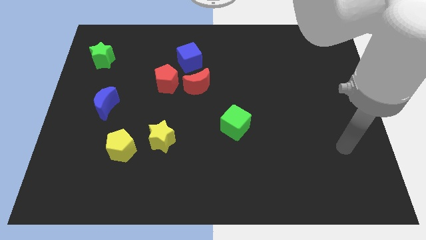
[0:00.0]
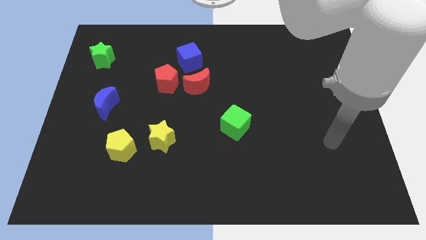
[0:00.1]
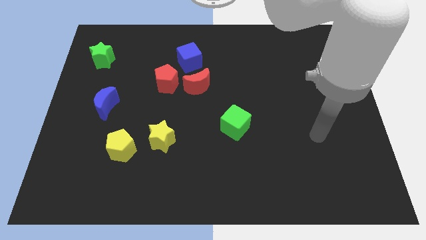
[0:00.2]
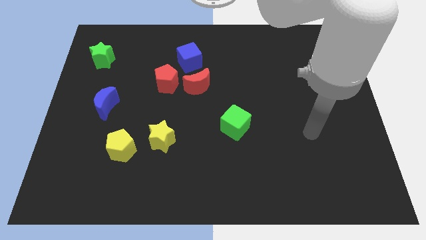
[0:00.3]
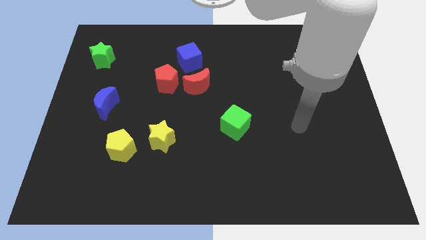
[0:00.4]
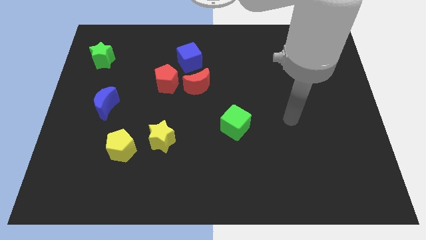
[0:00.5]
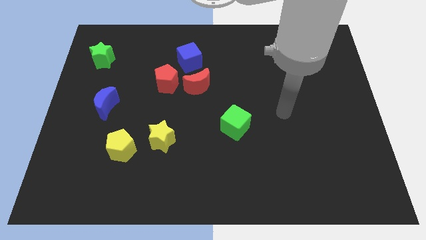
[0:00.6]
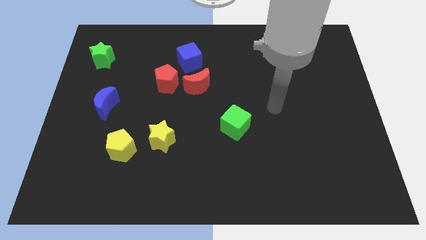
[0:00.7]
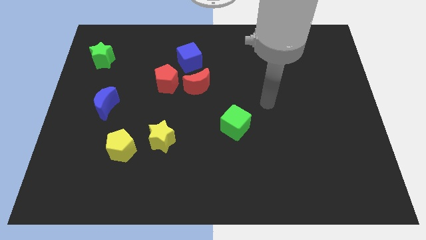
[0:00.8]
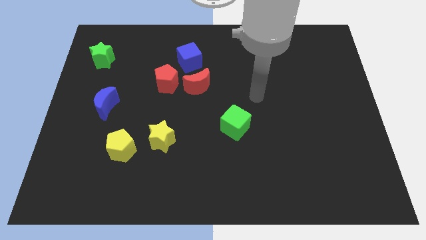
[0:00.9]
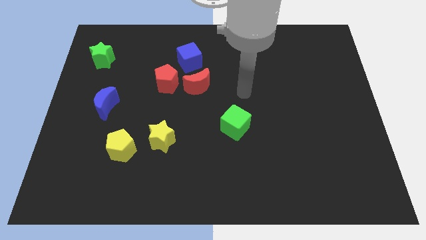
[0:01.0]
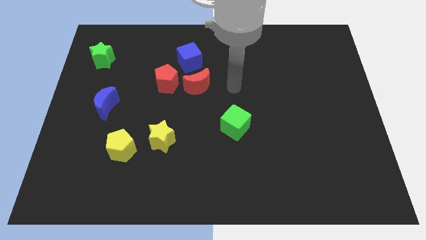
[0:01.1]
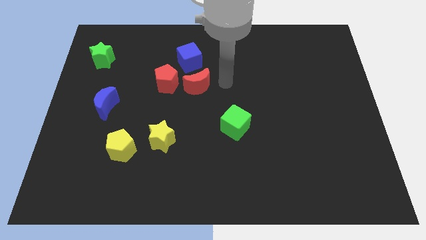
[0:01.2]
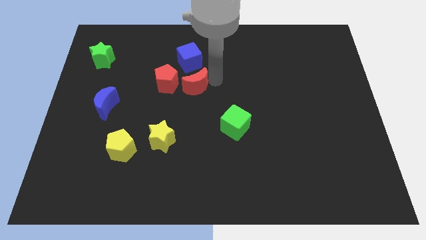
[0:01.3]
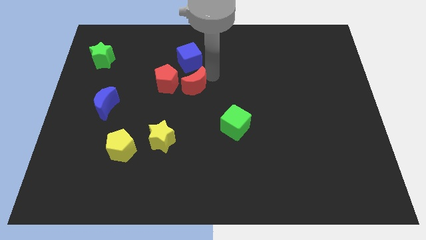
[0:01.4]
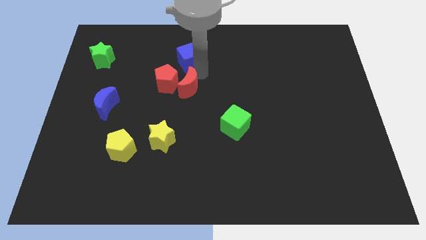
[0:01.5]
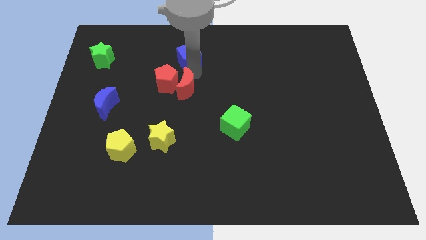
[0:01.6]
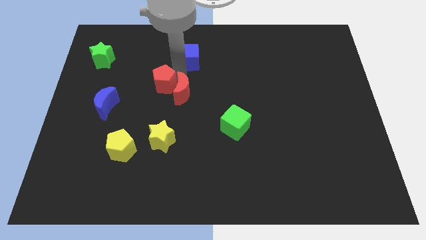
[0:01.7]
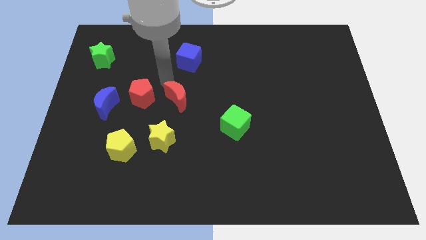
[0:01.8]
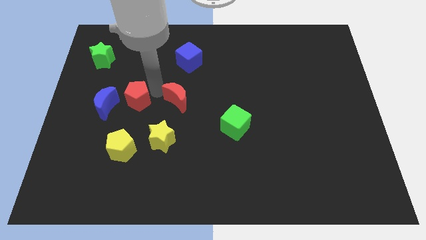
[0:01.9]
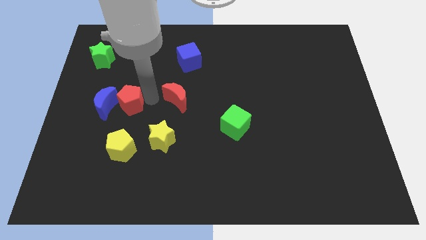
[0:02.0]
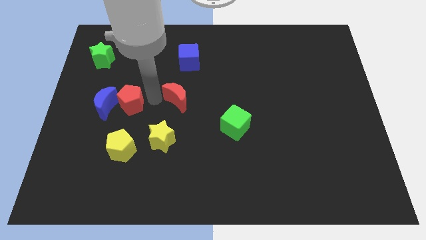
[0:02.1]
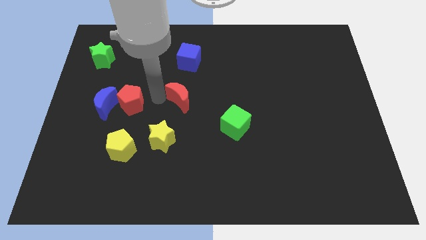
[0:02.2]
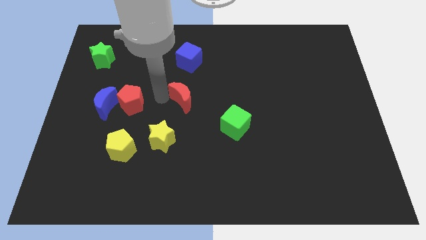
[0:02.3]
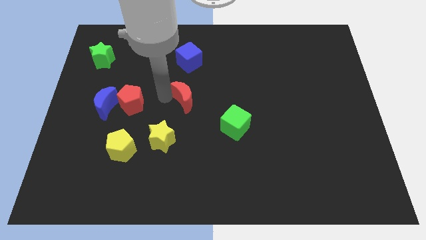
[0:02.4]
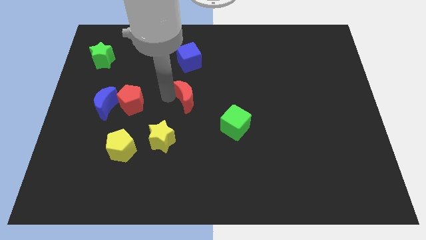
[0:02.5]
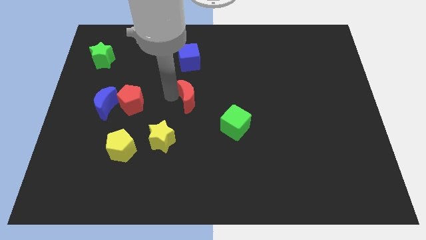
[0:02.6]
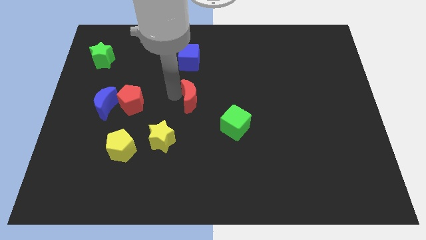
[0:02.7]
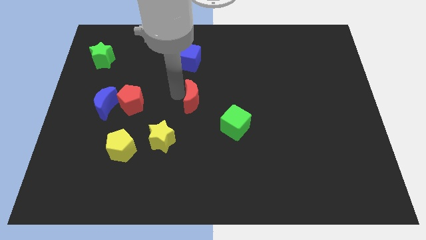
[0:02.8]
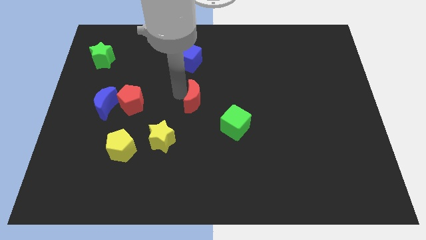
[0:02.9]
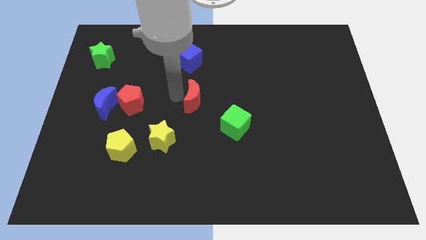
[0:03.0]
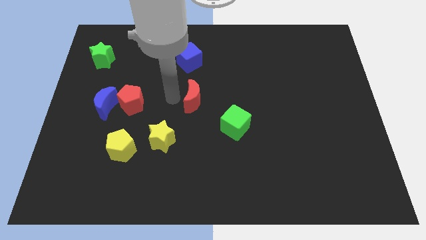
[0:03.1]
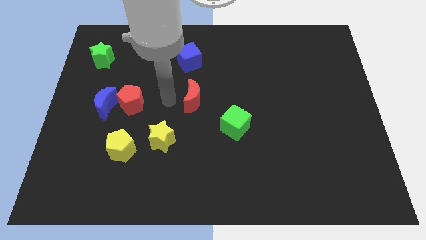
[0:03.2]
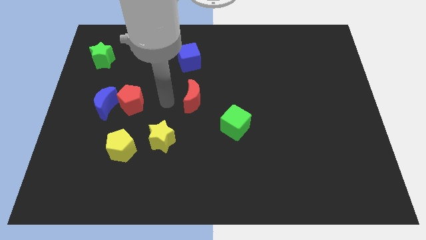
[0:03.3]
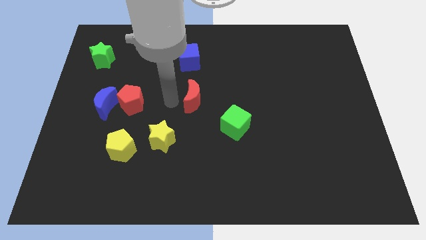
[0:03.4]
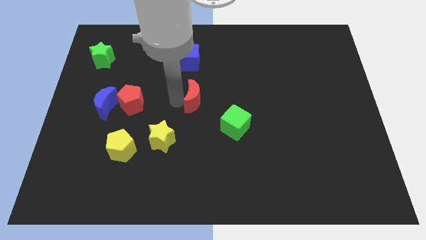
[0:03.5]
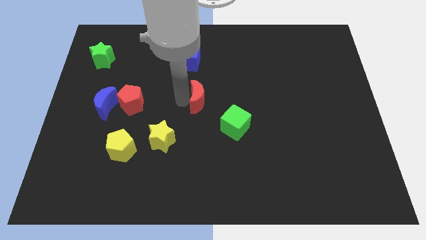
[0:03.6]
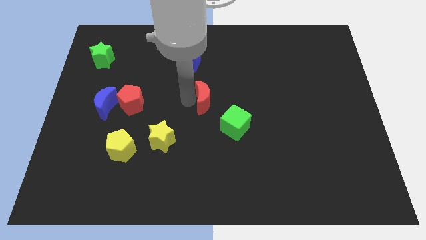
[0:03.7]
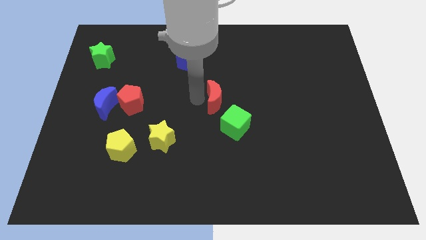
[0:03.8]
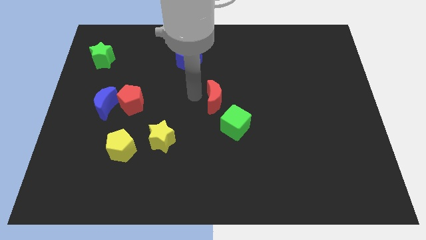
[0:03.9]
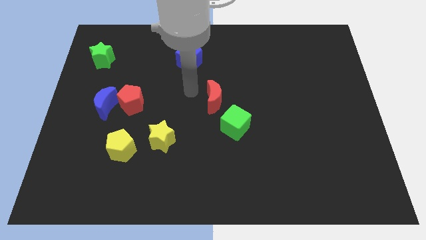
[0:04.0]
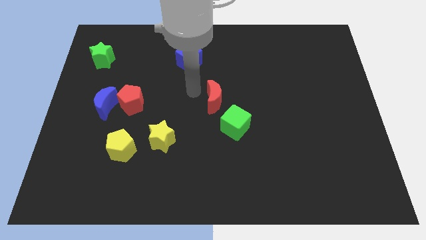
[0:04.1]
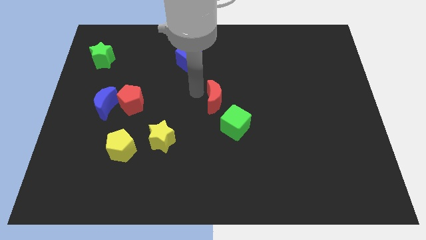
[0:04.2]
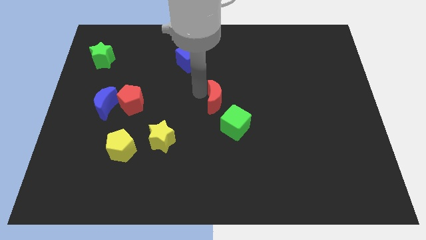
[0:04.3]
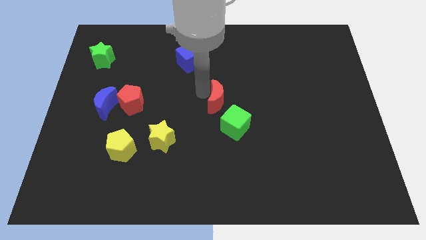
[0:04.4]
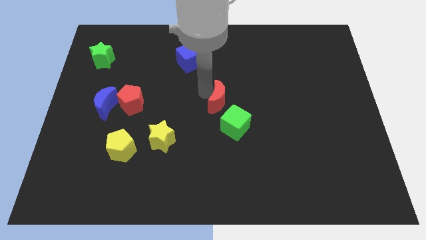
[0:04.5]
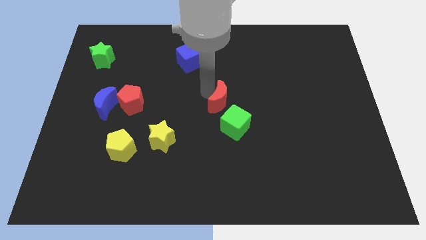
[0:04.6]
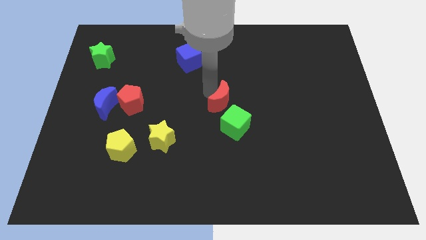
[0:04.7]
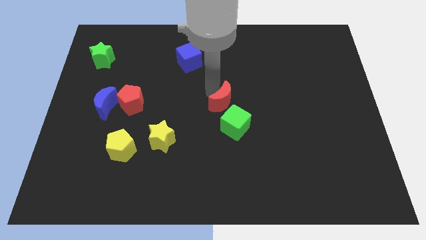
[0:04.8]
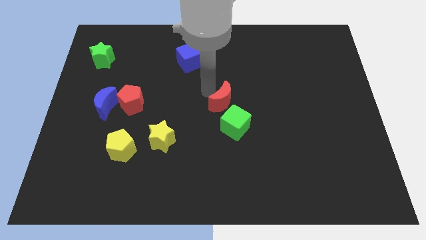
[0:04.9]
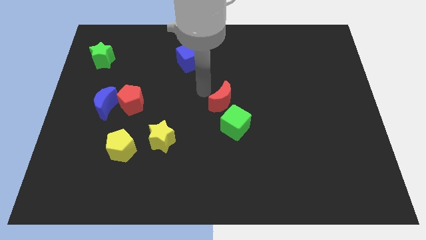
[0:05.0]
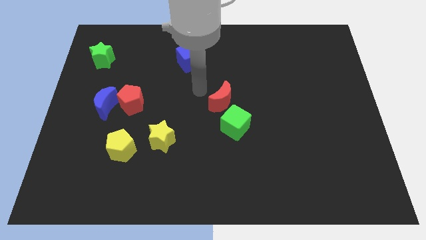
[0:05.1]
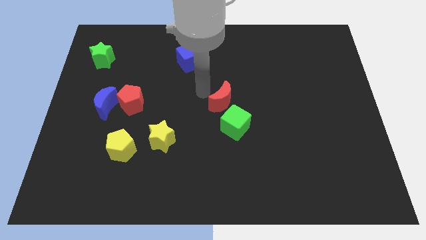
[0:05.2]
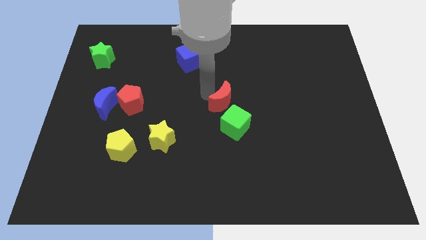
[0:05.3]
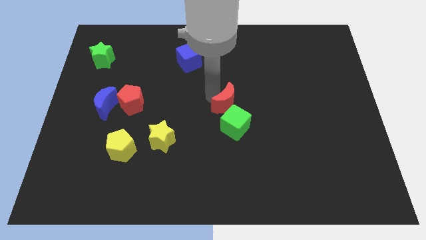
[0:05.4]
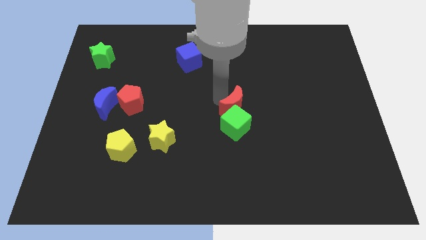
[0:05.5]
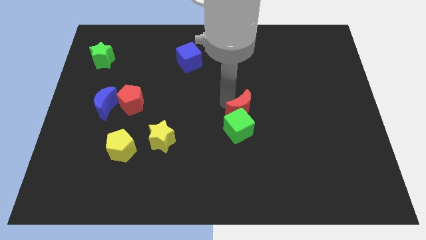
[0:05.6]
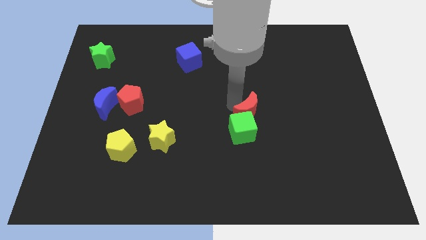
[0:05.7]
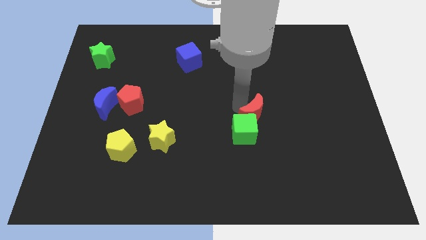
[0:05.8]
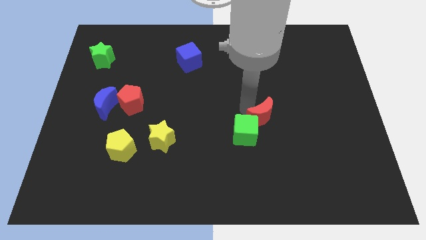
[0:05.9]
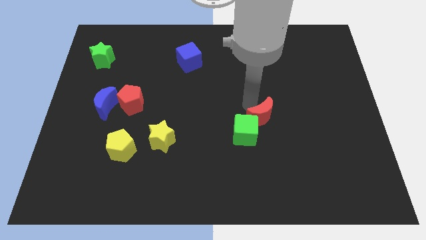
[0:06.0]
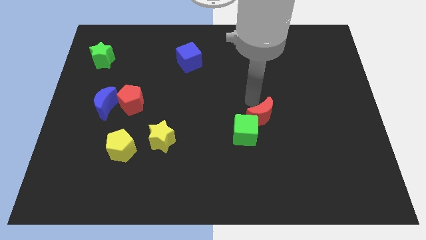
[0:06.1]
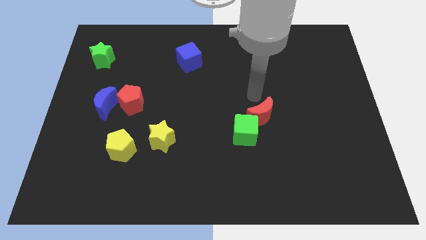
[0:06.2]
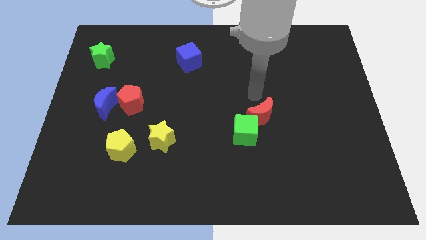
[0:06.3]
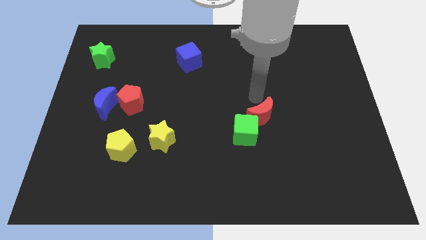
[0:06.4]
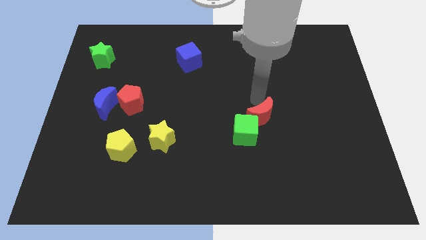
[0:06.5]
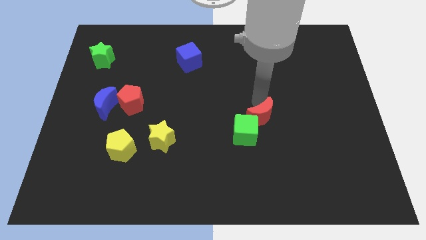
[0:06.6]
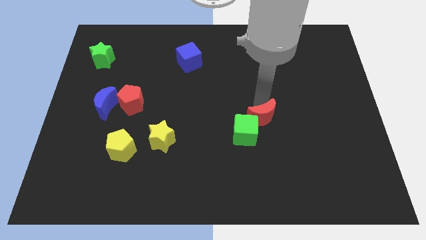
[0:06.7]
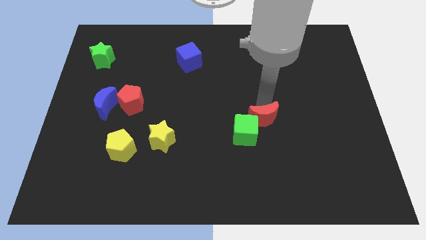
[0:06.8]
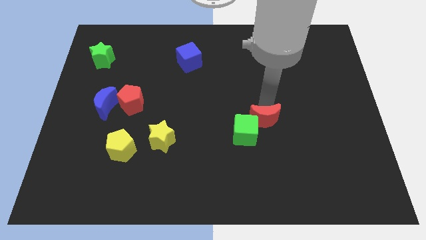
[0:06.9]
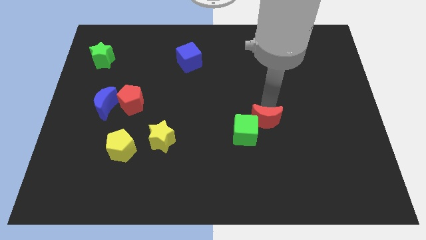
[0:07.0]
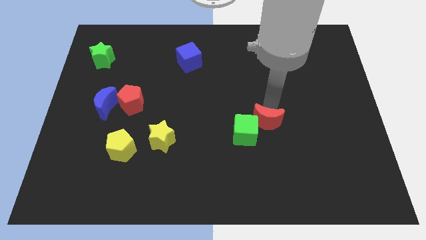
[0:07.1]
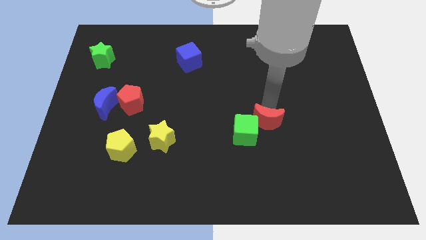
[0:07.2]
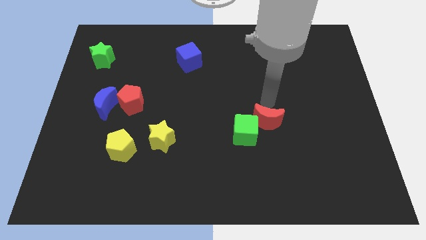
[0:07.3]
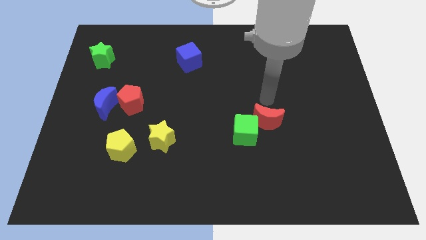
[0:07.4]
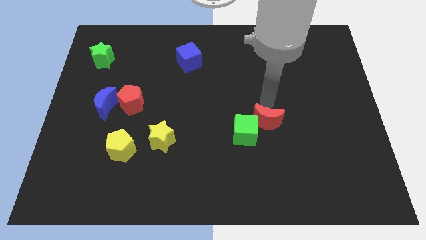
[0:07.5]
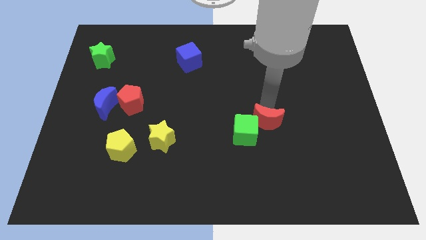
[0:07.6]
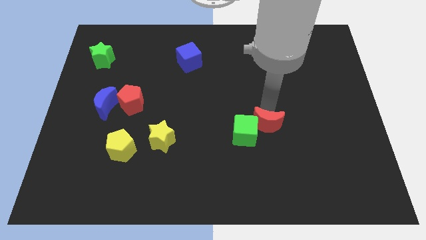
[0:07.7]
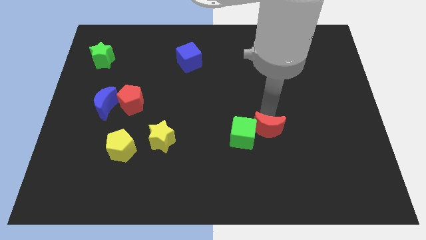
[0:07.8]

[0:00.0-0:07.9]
push the red moon downwards and then right
